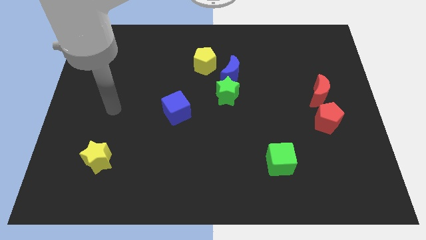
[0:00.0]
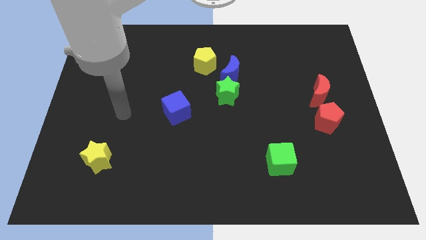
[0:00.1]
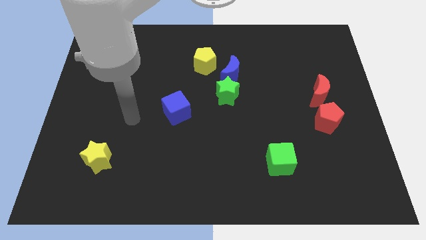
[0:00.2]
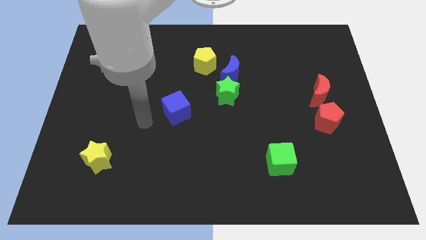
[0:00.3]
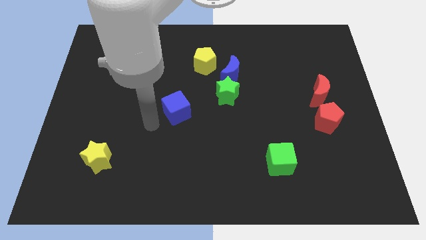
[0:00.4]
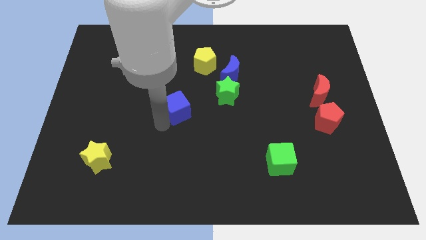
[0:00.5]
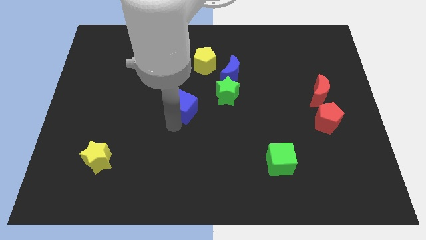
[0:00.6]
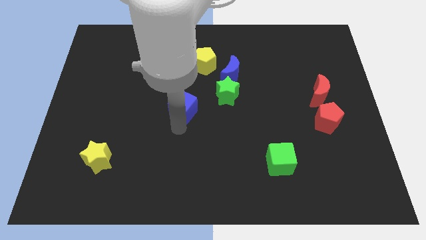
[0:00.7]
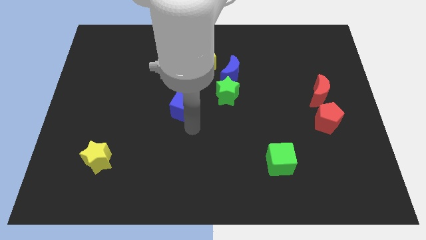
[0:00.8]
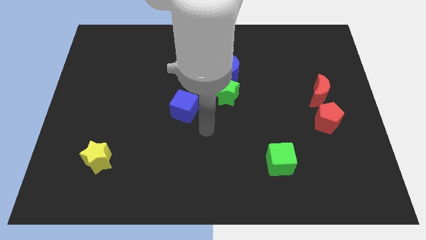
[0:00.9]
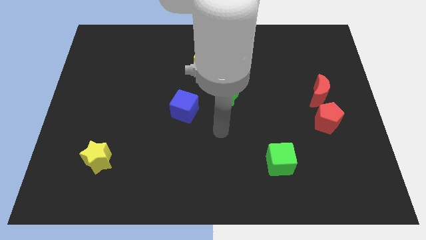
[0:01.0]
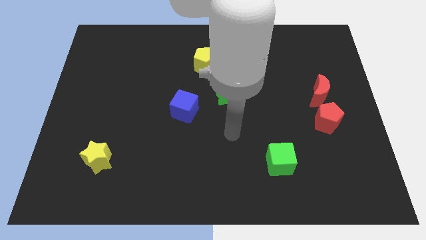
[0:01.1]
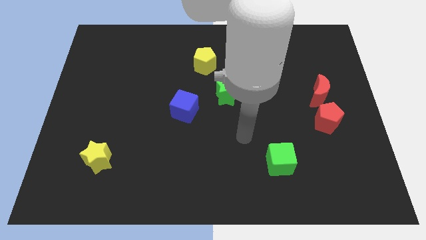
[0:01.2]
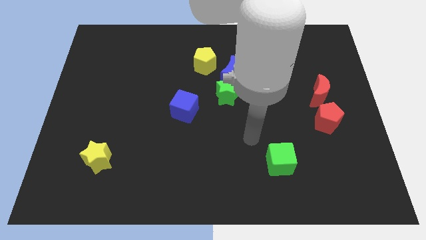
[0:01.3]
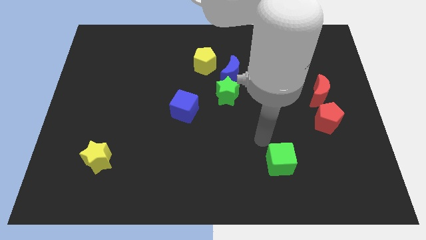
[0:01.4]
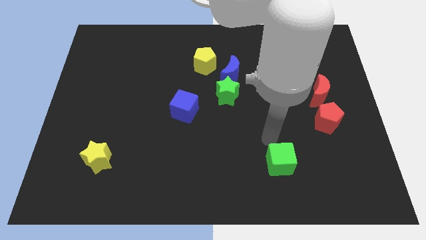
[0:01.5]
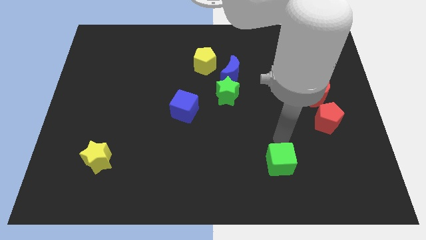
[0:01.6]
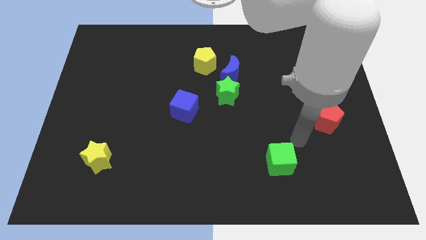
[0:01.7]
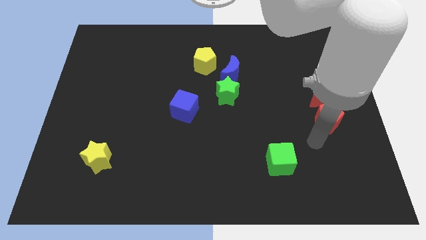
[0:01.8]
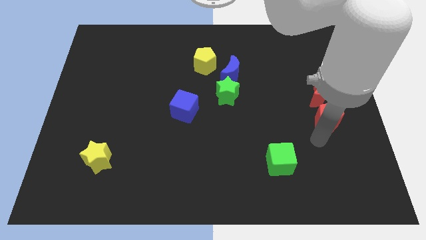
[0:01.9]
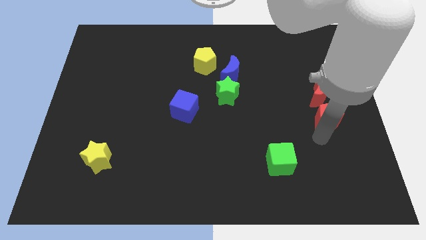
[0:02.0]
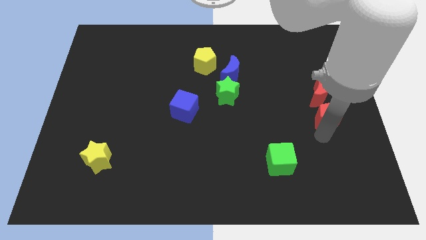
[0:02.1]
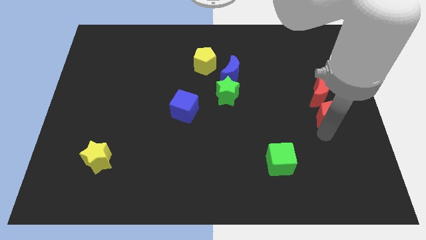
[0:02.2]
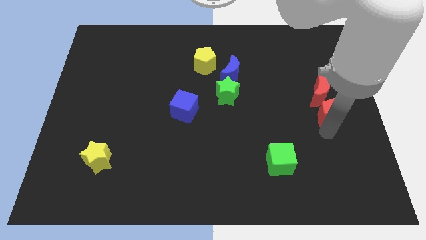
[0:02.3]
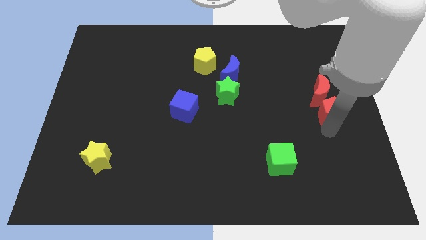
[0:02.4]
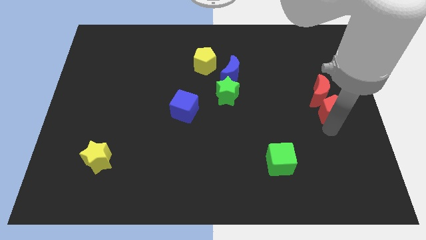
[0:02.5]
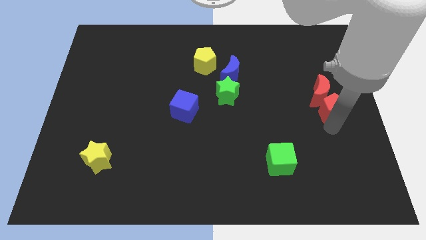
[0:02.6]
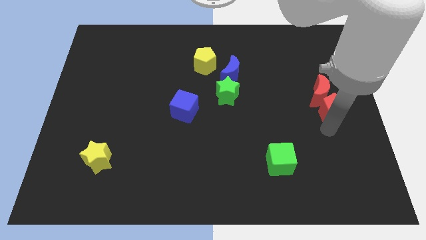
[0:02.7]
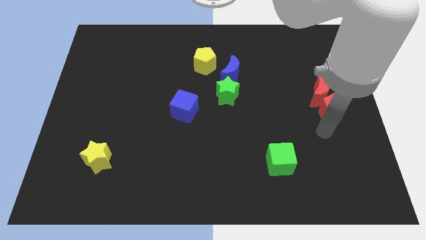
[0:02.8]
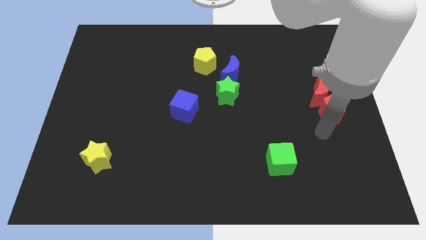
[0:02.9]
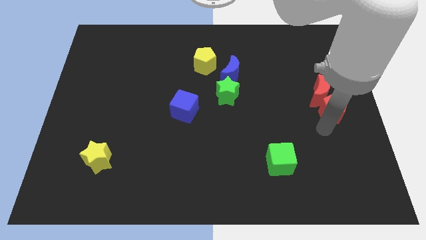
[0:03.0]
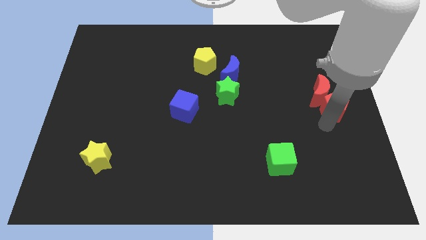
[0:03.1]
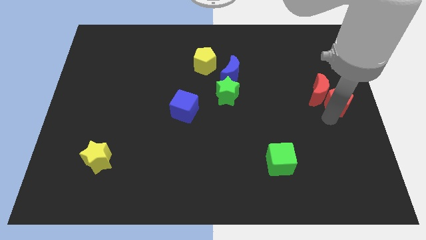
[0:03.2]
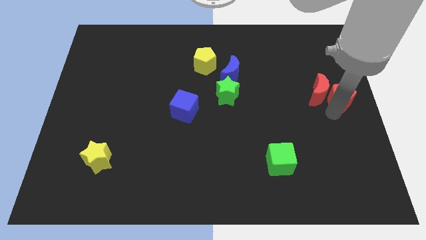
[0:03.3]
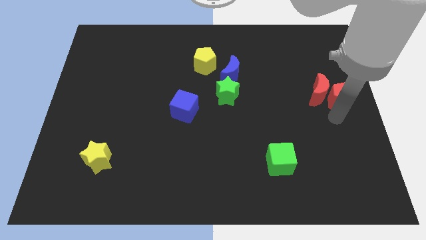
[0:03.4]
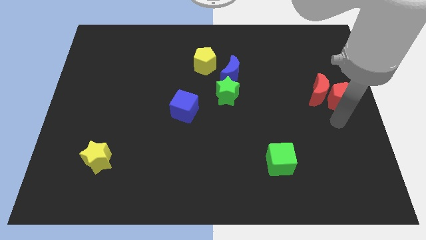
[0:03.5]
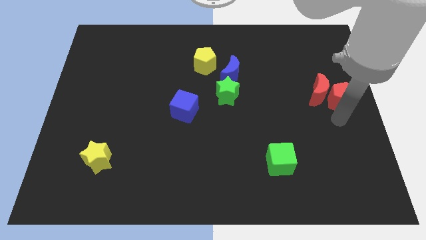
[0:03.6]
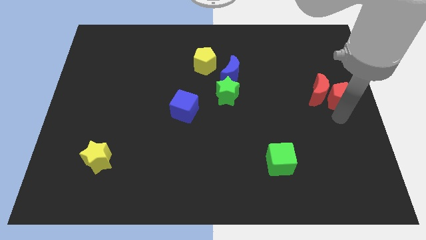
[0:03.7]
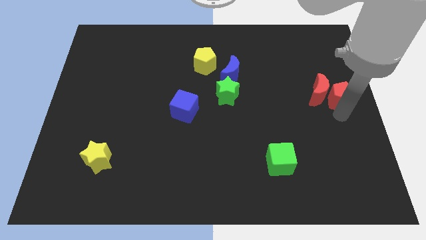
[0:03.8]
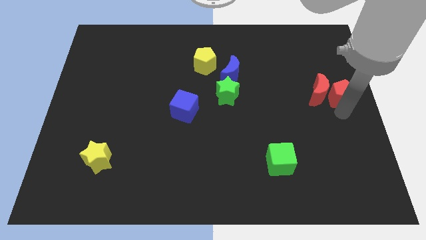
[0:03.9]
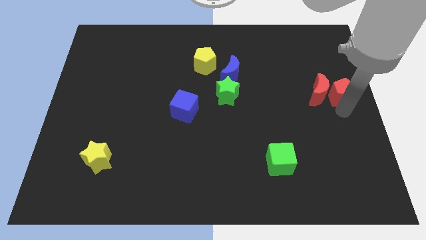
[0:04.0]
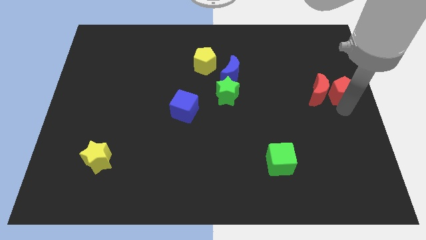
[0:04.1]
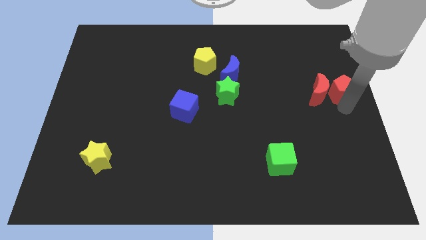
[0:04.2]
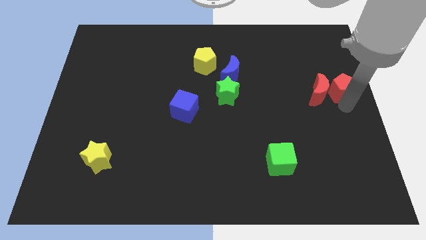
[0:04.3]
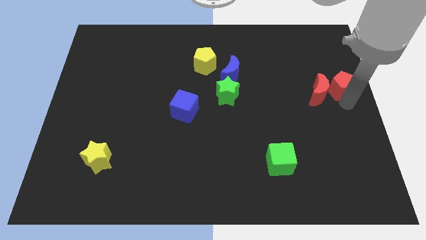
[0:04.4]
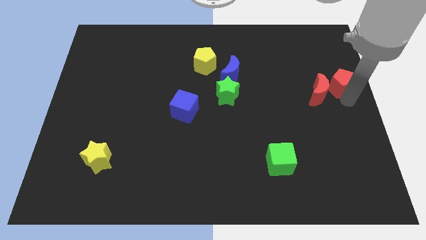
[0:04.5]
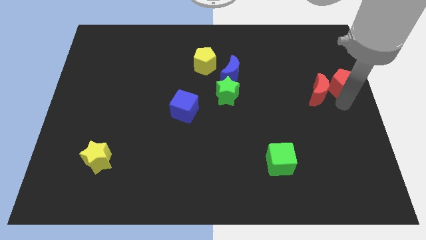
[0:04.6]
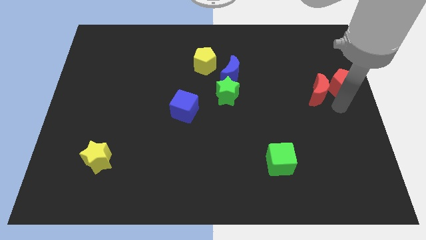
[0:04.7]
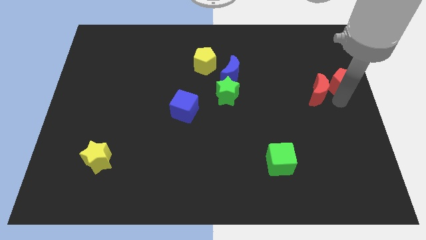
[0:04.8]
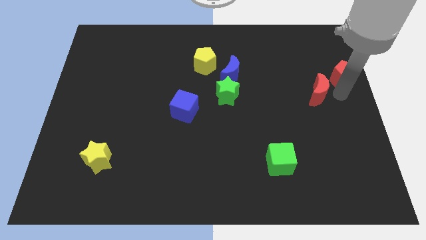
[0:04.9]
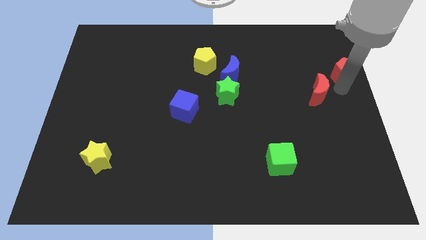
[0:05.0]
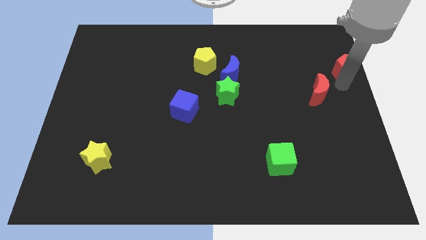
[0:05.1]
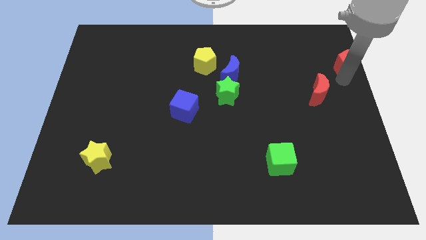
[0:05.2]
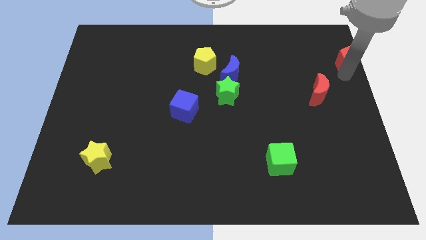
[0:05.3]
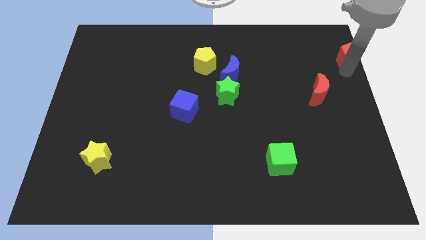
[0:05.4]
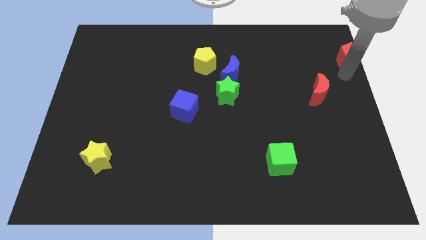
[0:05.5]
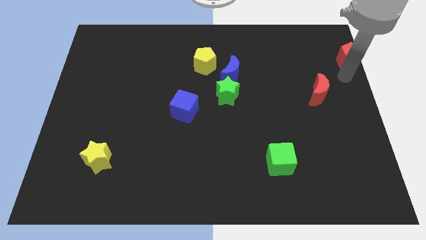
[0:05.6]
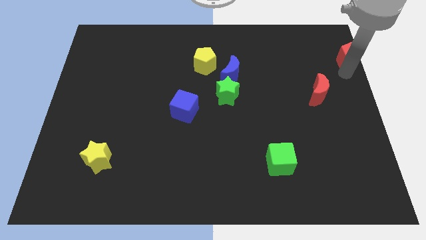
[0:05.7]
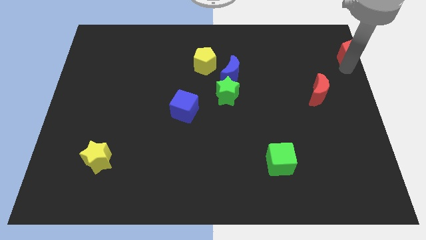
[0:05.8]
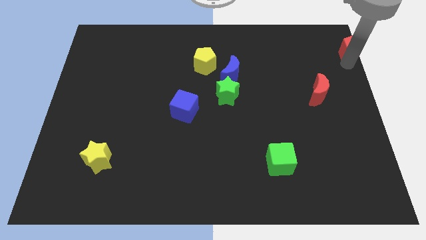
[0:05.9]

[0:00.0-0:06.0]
put the red pentagon to the upper right corner
